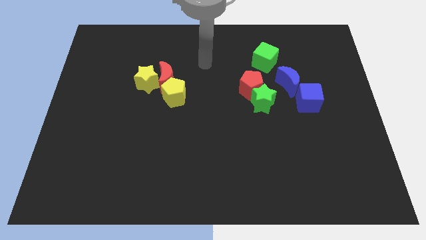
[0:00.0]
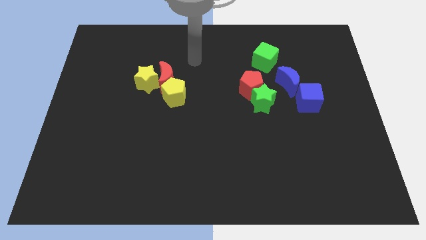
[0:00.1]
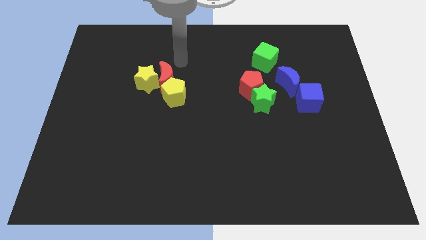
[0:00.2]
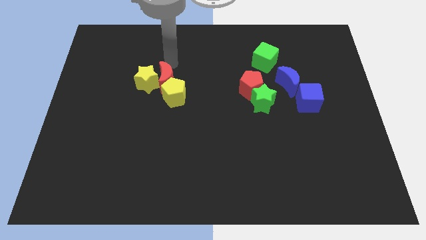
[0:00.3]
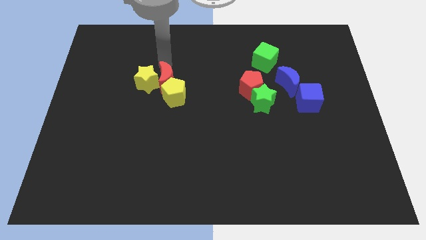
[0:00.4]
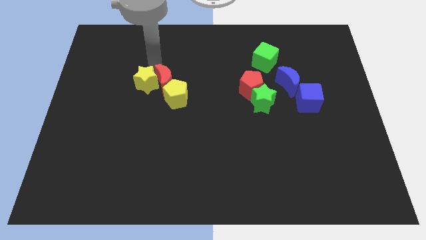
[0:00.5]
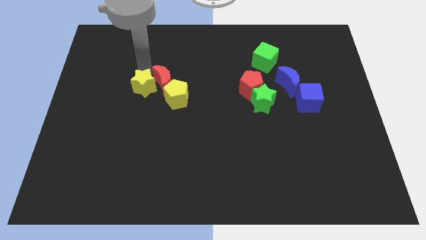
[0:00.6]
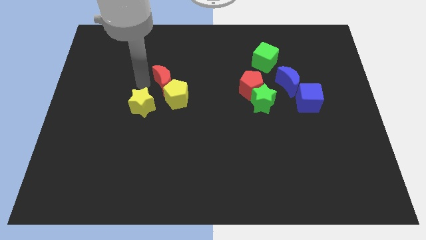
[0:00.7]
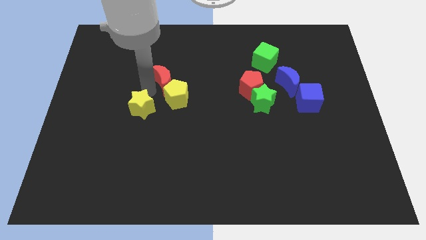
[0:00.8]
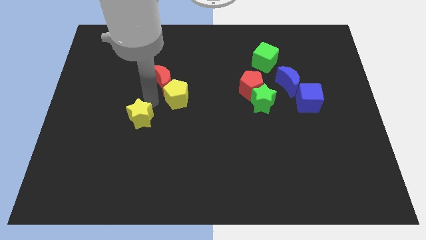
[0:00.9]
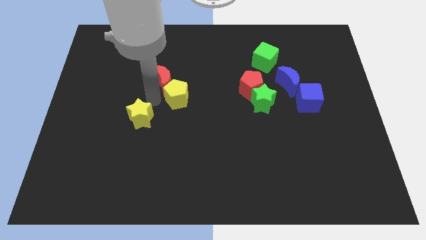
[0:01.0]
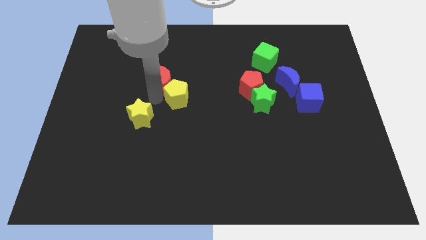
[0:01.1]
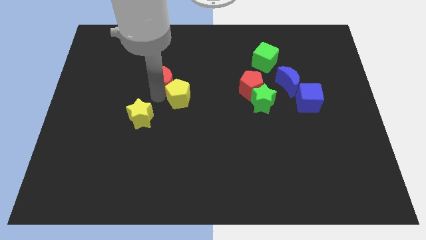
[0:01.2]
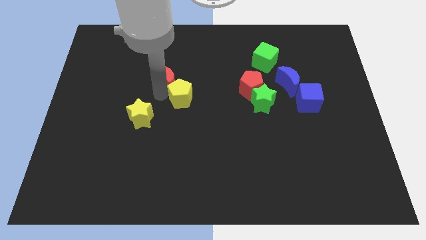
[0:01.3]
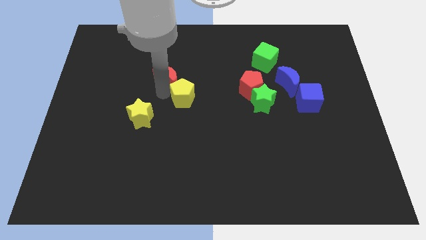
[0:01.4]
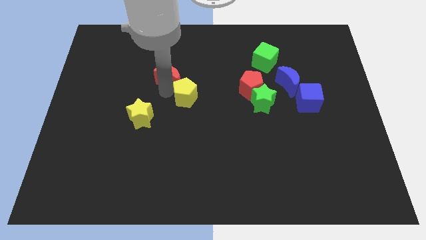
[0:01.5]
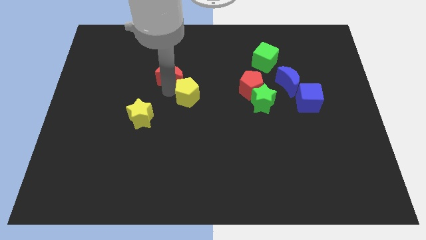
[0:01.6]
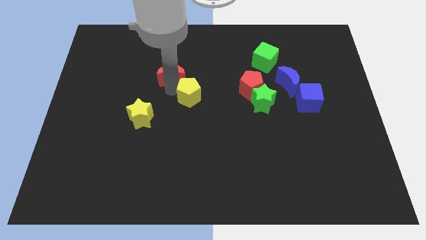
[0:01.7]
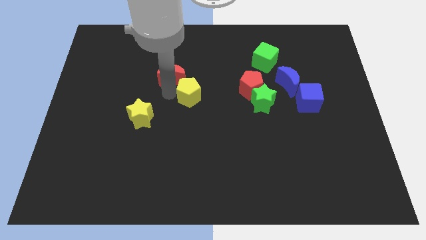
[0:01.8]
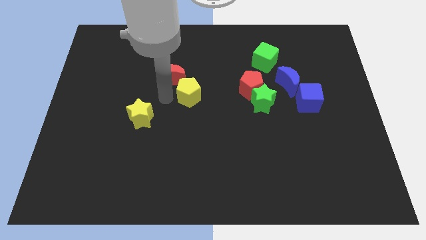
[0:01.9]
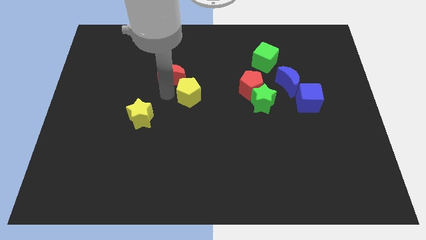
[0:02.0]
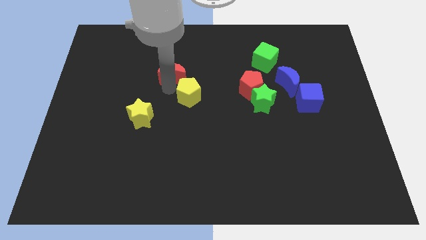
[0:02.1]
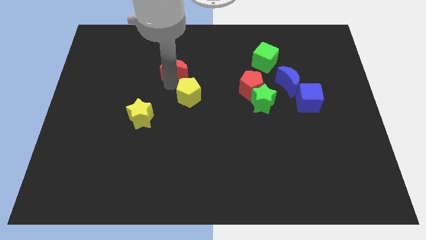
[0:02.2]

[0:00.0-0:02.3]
move the red moon away from the yellow star and yellow pentagon

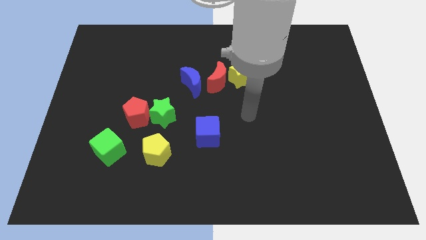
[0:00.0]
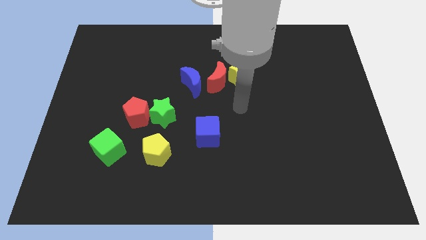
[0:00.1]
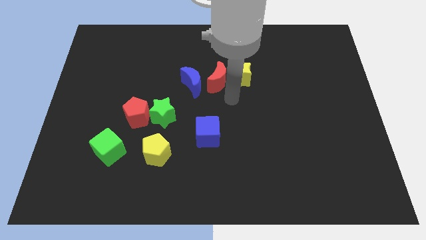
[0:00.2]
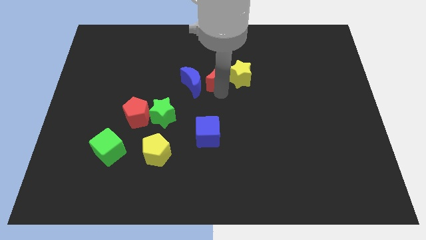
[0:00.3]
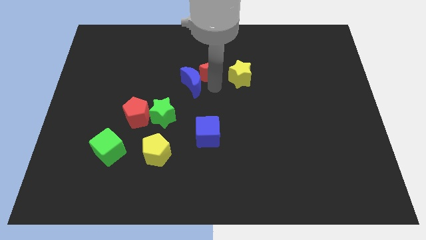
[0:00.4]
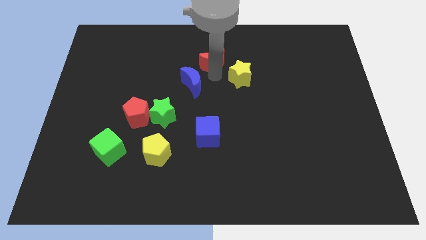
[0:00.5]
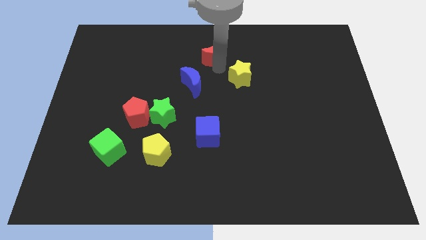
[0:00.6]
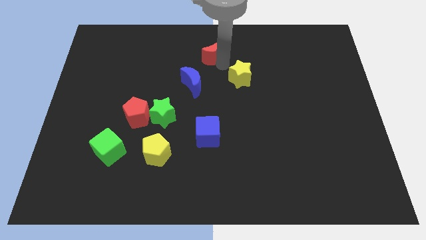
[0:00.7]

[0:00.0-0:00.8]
separate the yellow star from the red moon

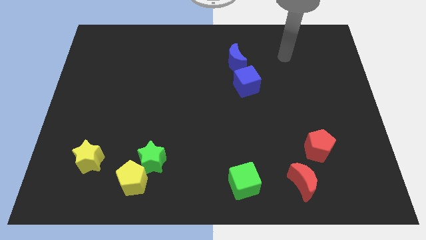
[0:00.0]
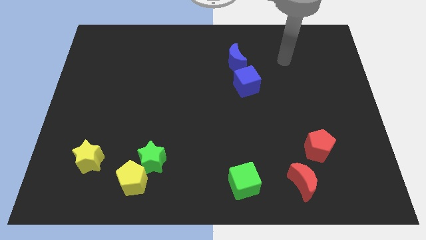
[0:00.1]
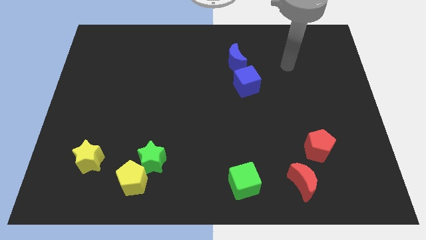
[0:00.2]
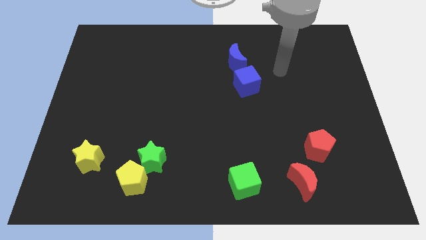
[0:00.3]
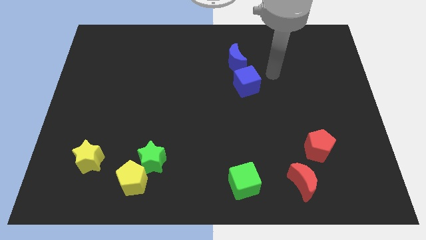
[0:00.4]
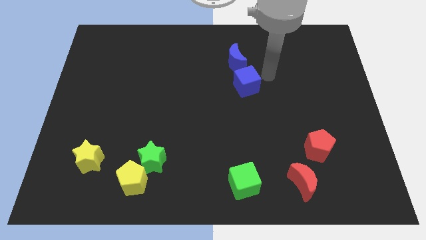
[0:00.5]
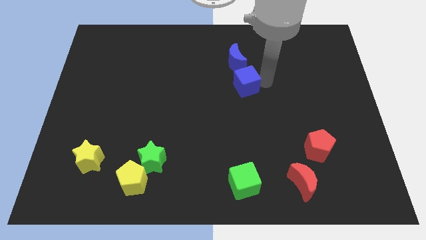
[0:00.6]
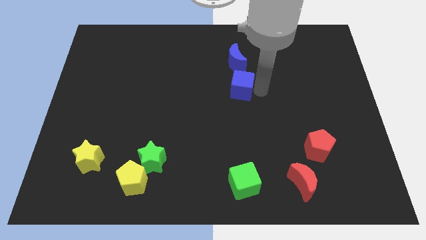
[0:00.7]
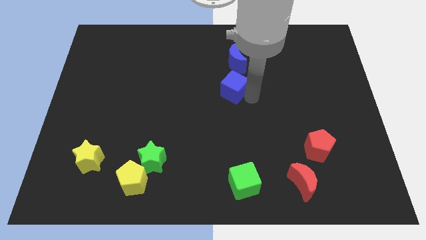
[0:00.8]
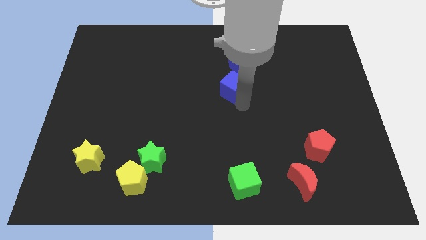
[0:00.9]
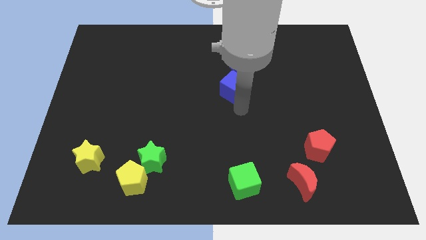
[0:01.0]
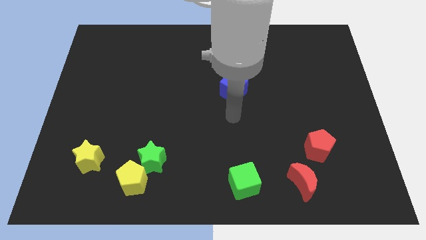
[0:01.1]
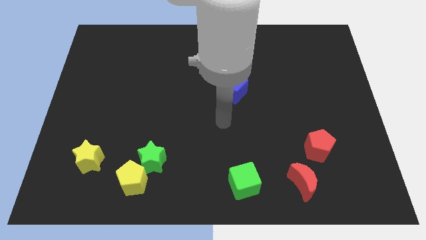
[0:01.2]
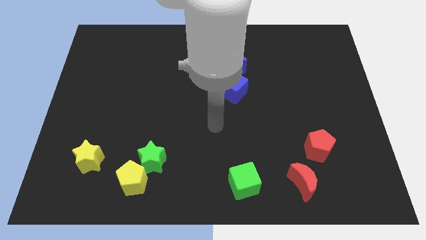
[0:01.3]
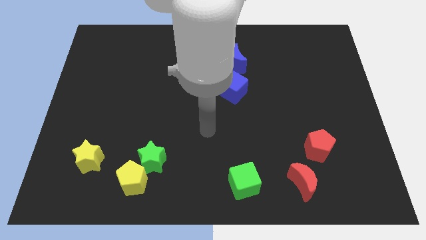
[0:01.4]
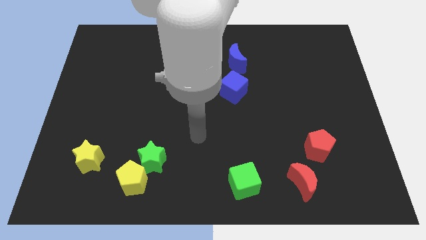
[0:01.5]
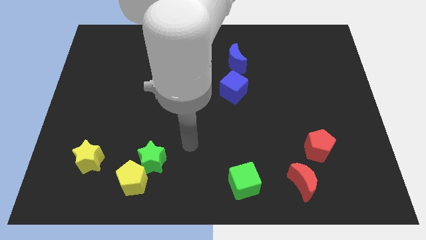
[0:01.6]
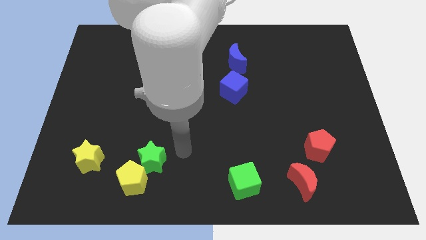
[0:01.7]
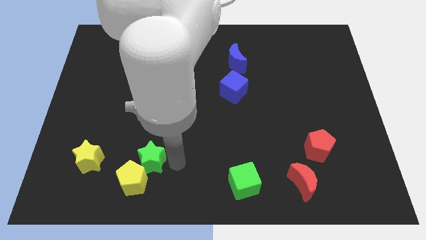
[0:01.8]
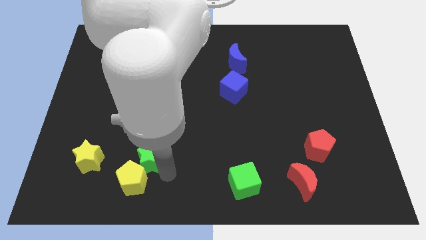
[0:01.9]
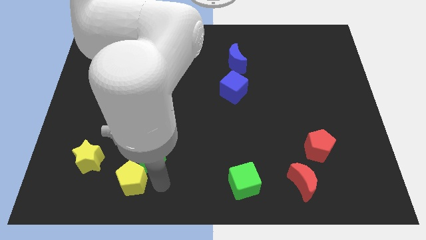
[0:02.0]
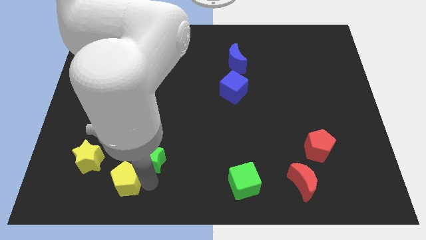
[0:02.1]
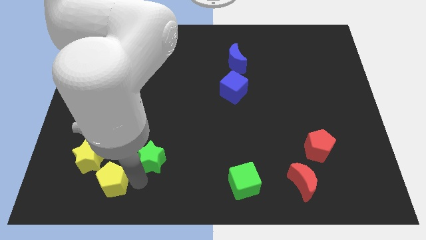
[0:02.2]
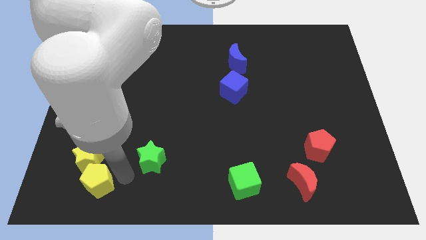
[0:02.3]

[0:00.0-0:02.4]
separate the green star from the yellow pentagon

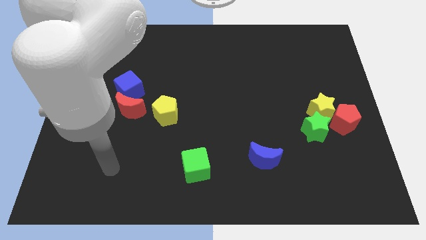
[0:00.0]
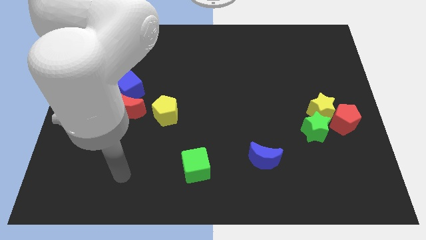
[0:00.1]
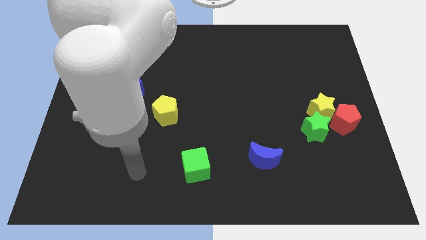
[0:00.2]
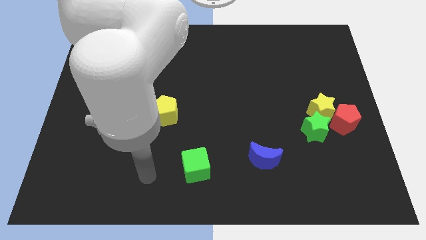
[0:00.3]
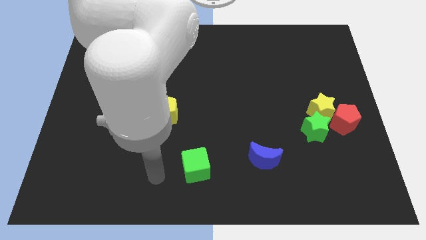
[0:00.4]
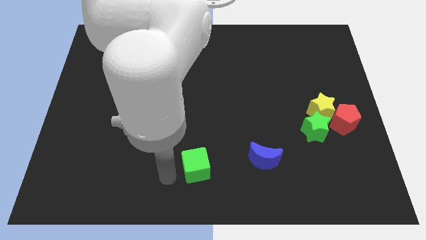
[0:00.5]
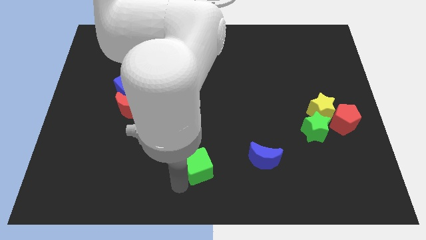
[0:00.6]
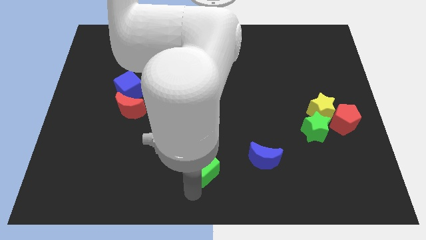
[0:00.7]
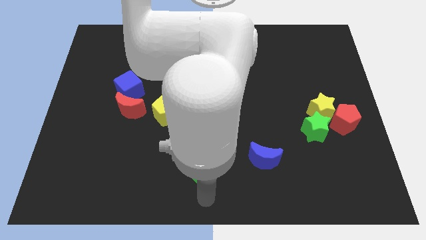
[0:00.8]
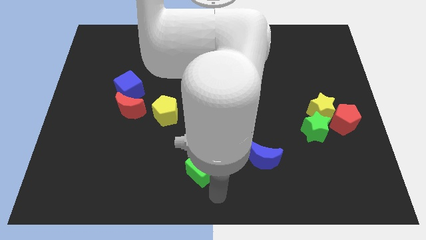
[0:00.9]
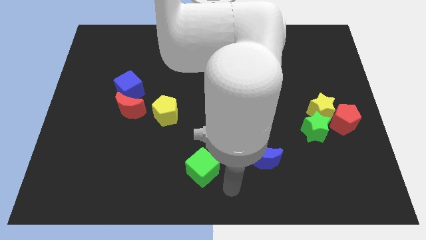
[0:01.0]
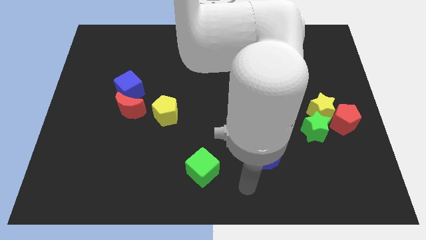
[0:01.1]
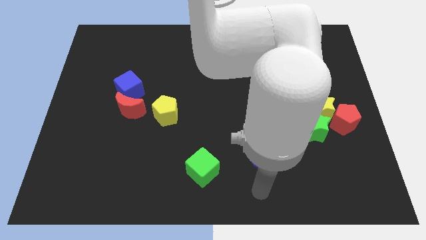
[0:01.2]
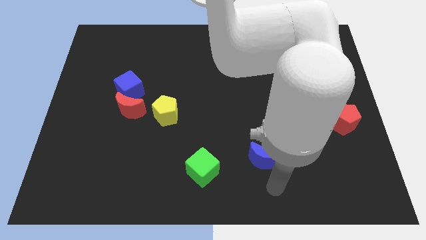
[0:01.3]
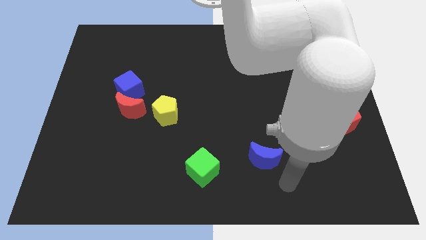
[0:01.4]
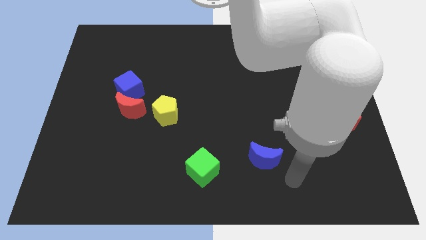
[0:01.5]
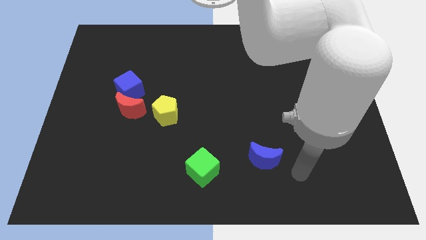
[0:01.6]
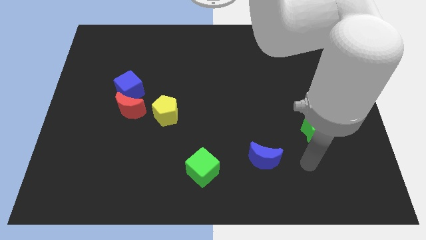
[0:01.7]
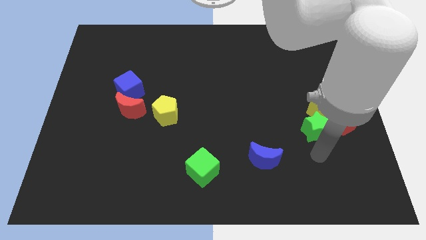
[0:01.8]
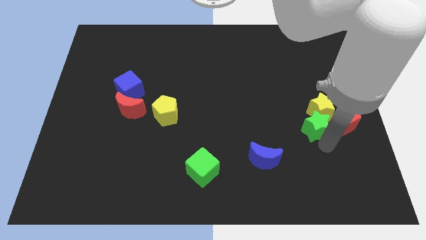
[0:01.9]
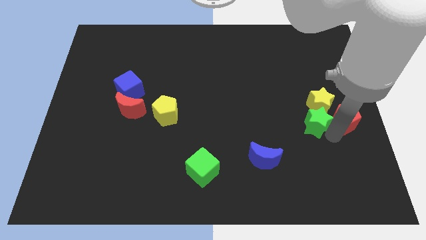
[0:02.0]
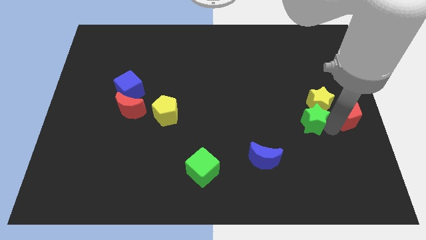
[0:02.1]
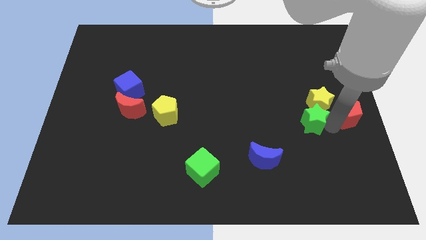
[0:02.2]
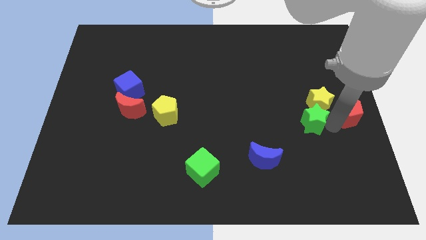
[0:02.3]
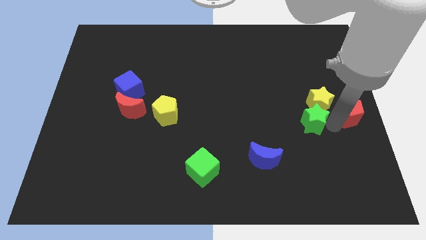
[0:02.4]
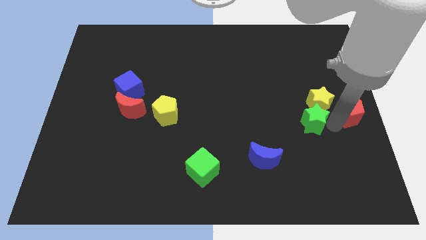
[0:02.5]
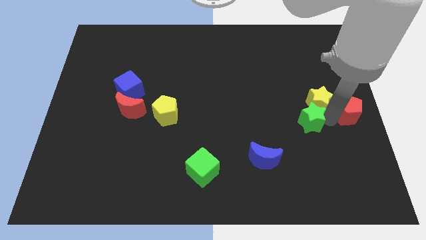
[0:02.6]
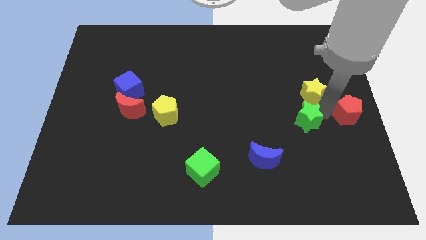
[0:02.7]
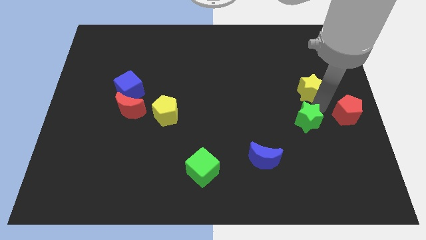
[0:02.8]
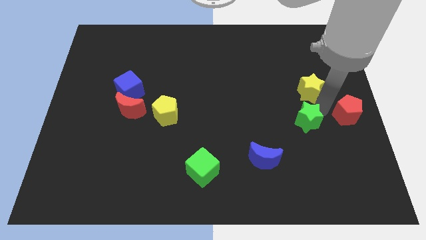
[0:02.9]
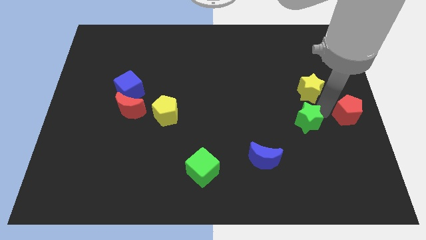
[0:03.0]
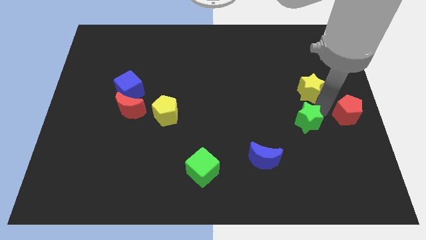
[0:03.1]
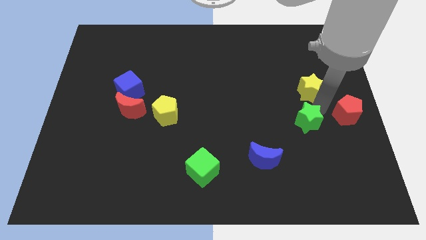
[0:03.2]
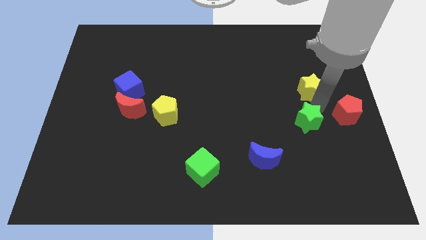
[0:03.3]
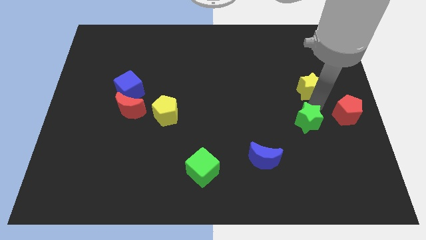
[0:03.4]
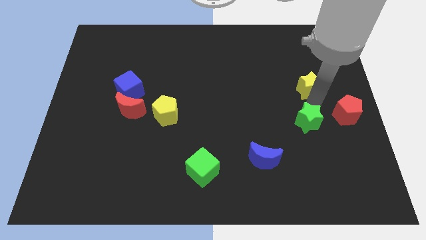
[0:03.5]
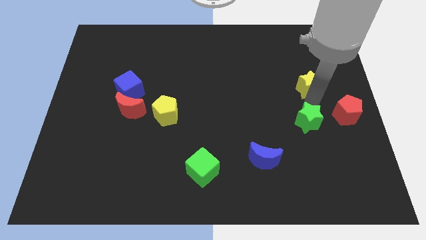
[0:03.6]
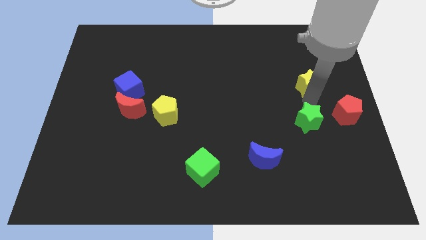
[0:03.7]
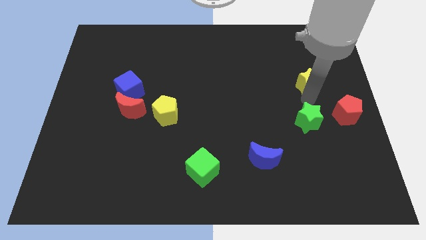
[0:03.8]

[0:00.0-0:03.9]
pull the yellow star apart from the green star and red pentagon
